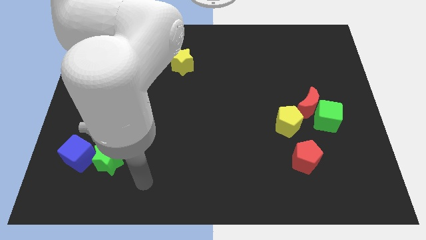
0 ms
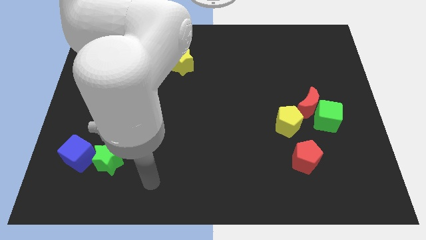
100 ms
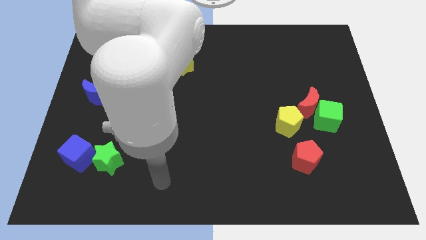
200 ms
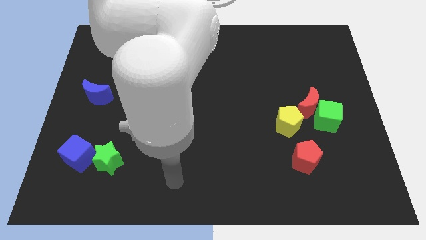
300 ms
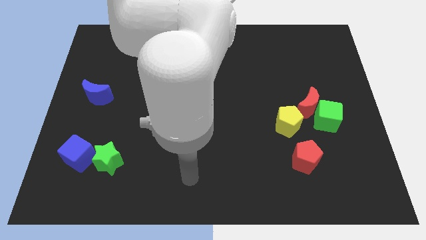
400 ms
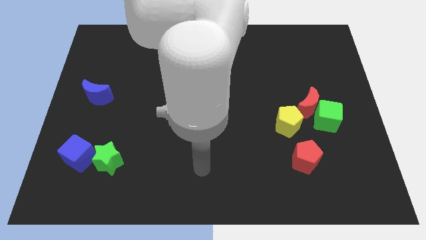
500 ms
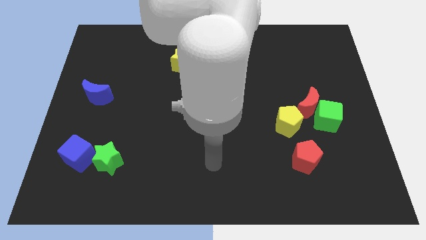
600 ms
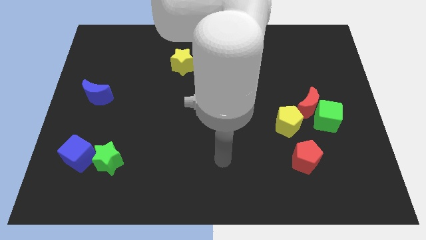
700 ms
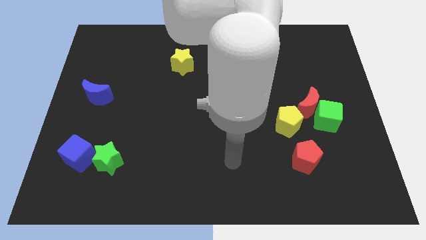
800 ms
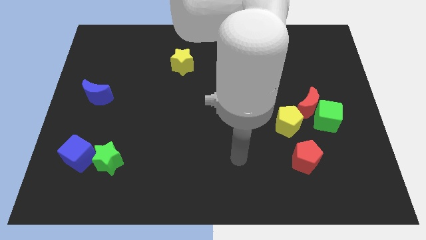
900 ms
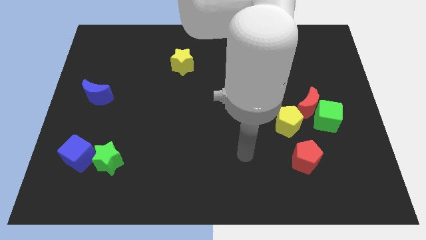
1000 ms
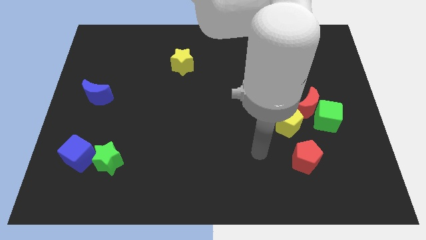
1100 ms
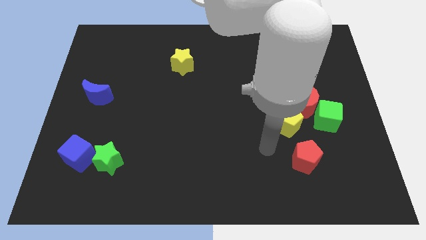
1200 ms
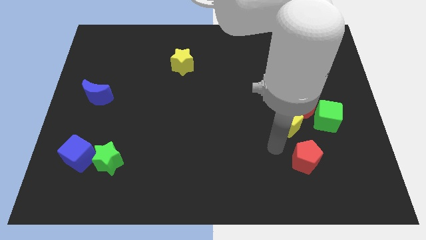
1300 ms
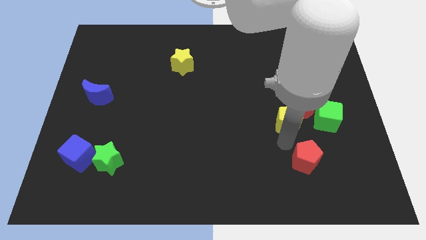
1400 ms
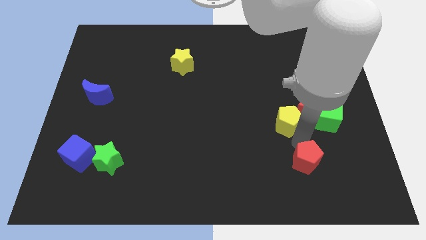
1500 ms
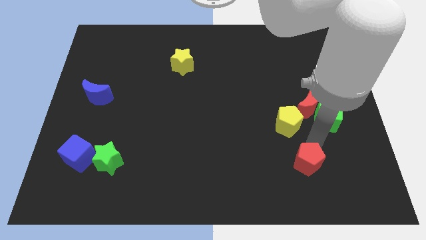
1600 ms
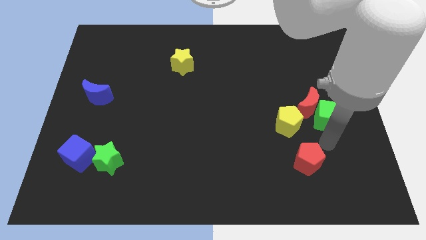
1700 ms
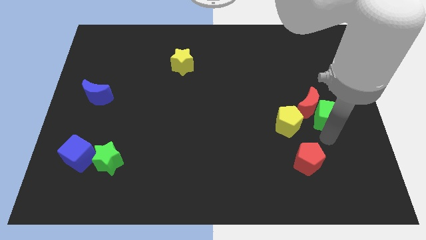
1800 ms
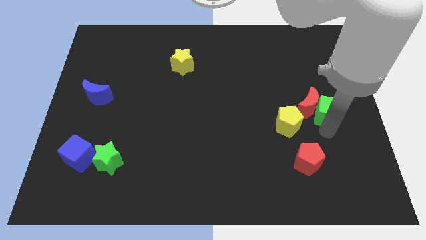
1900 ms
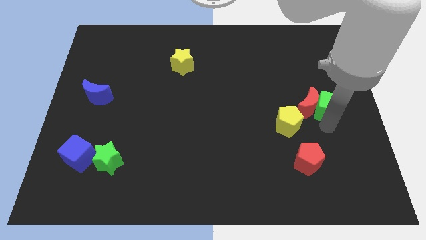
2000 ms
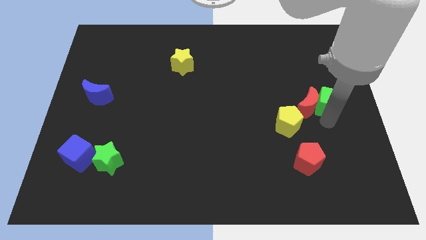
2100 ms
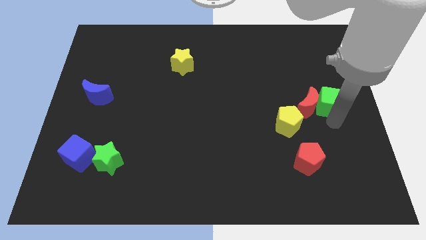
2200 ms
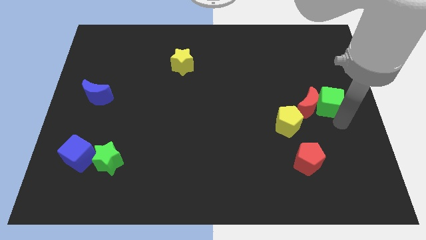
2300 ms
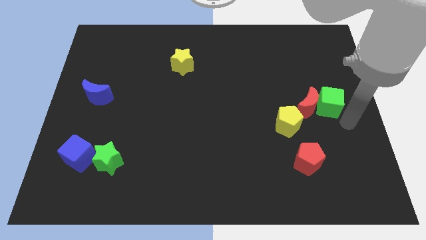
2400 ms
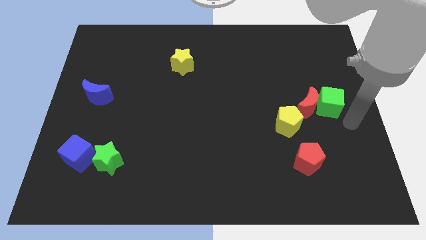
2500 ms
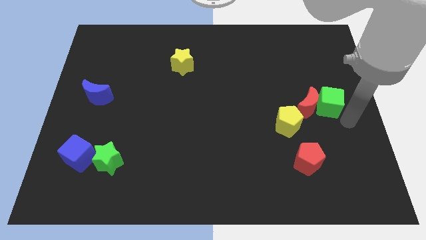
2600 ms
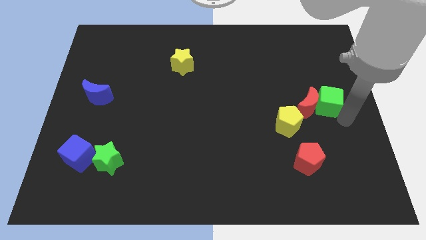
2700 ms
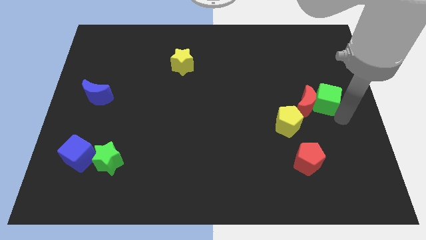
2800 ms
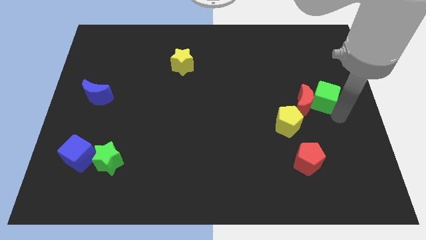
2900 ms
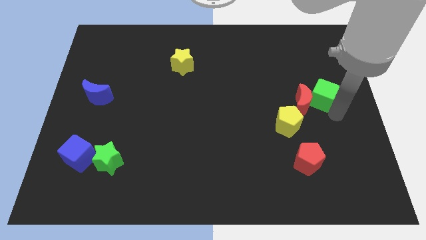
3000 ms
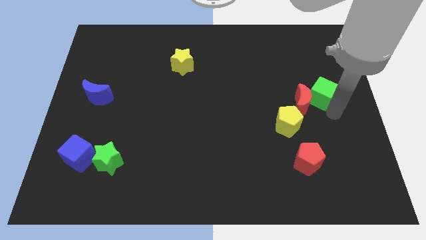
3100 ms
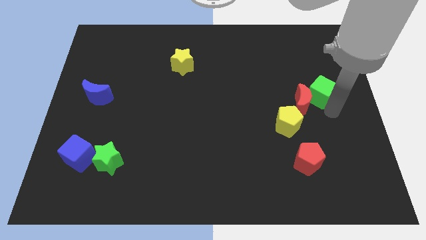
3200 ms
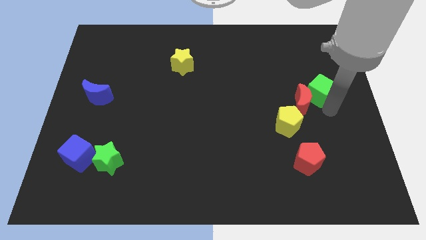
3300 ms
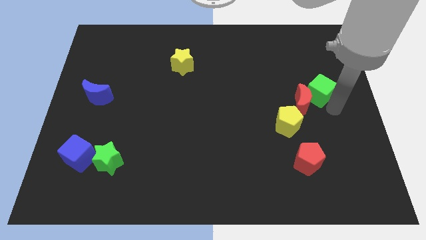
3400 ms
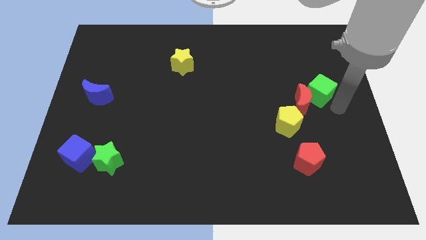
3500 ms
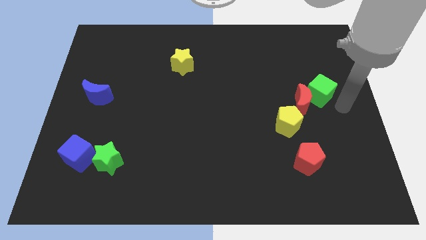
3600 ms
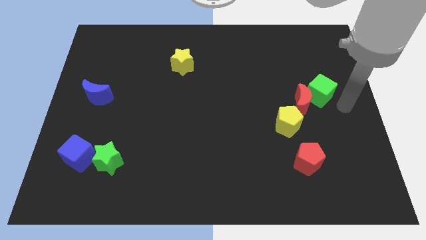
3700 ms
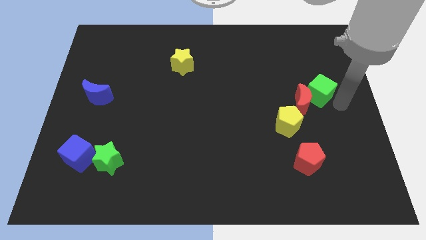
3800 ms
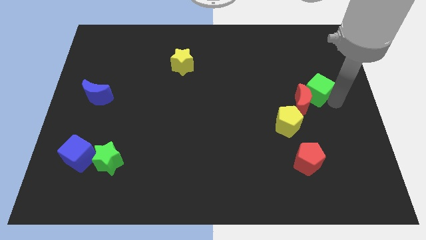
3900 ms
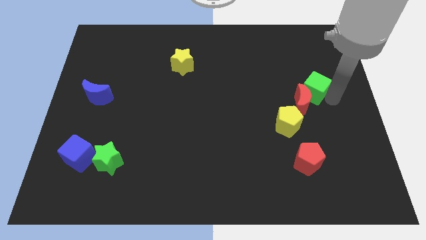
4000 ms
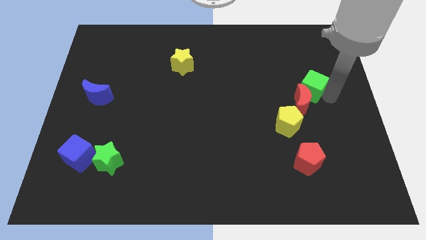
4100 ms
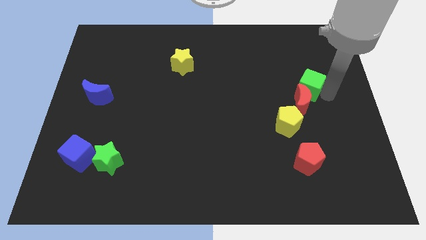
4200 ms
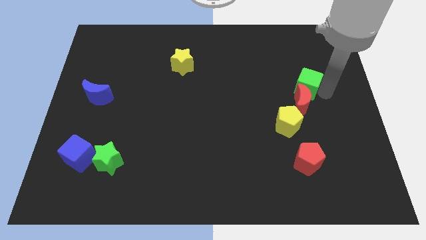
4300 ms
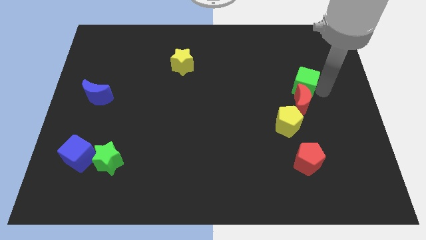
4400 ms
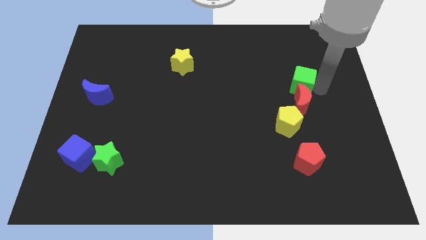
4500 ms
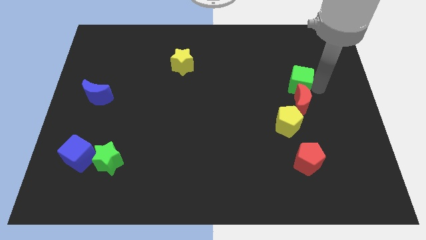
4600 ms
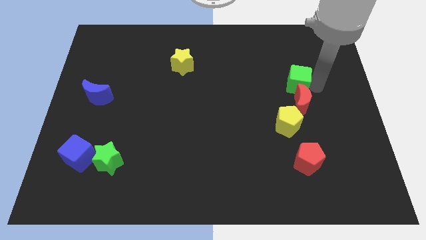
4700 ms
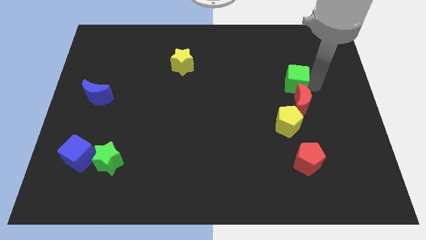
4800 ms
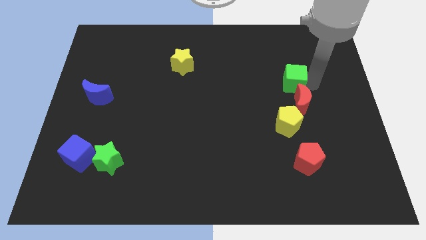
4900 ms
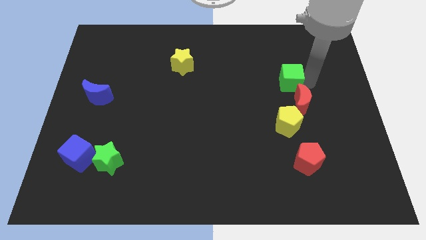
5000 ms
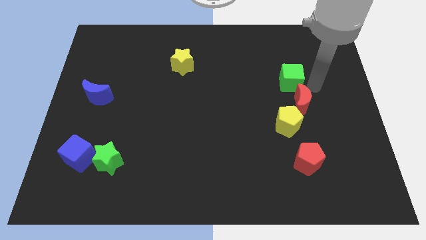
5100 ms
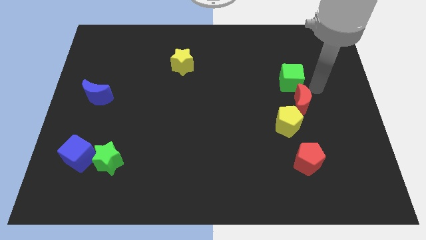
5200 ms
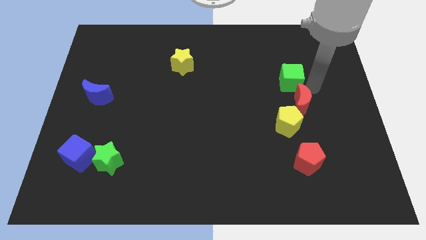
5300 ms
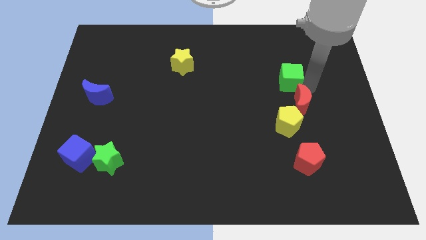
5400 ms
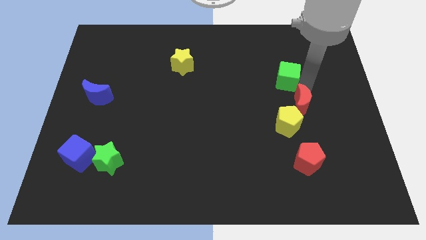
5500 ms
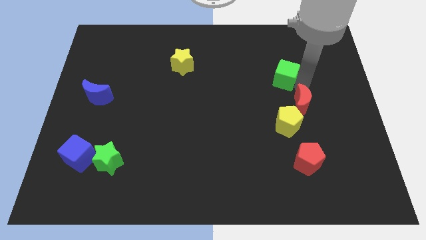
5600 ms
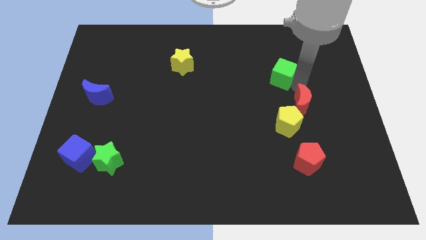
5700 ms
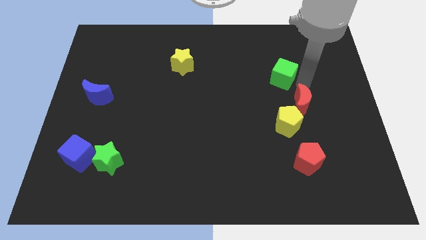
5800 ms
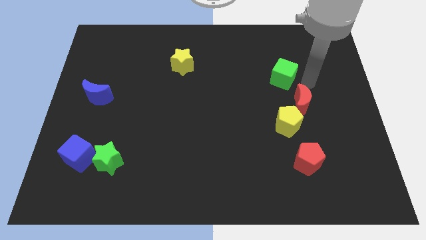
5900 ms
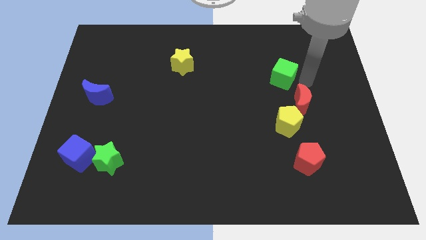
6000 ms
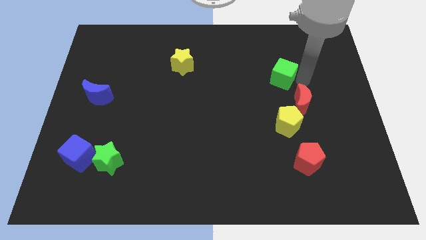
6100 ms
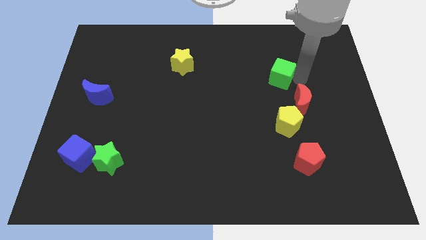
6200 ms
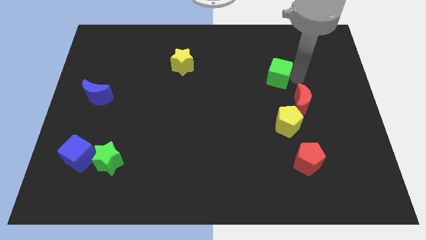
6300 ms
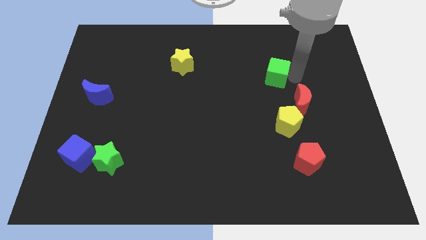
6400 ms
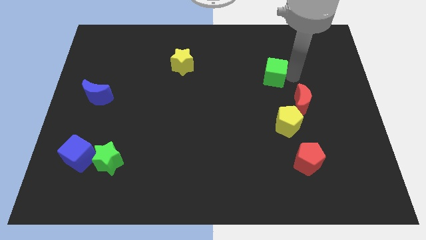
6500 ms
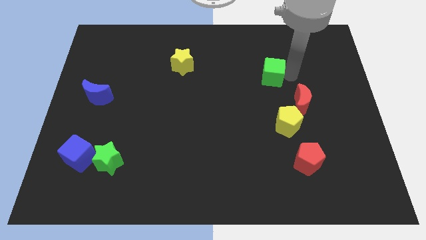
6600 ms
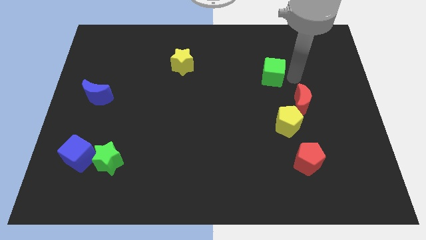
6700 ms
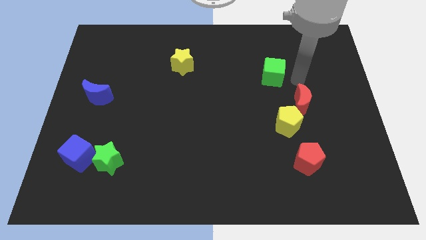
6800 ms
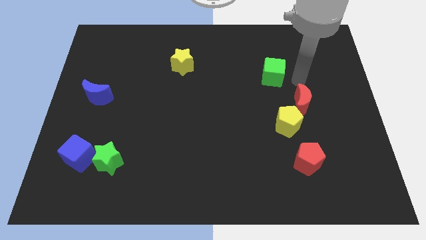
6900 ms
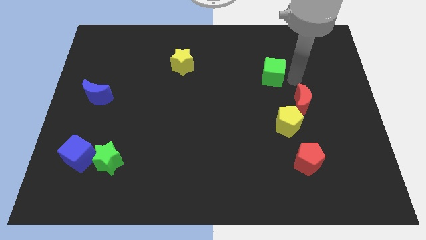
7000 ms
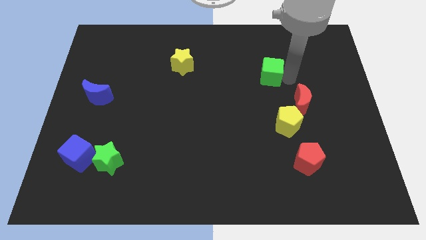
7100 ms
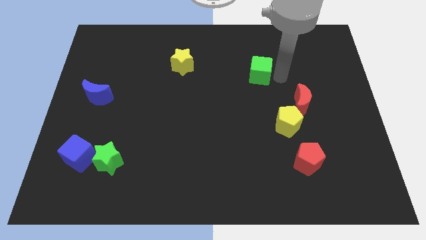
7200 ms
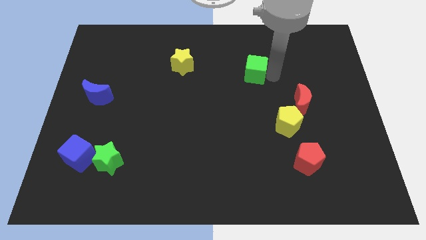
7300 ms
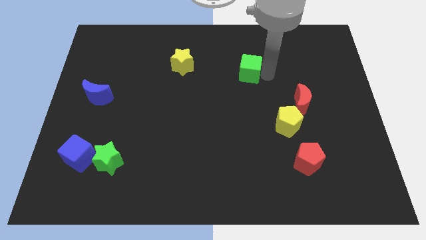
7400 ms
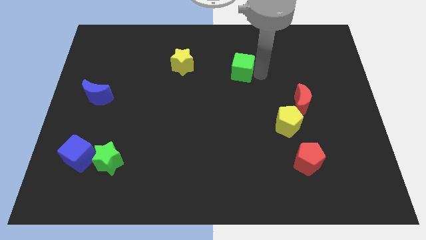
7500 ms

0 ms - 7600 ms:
move the green cube just right of the yellow star

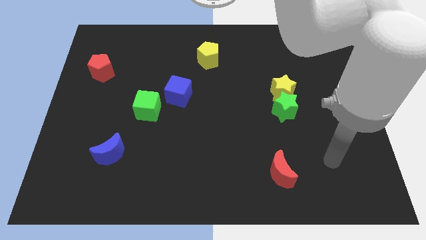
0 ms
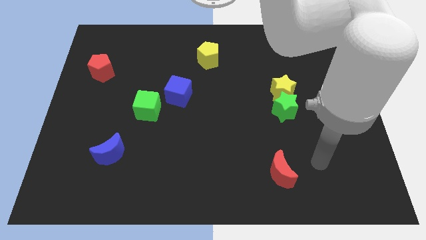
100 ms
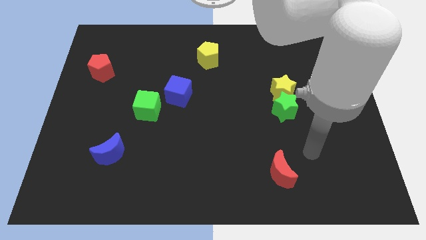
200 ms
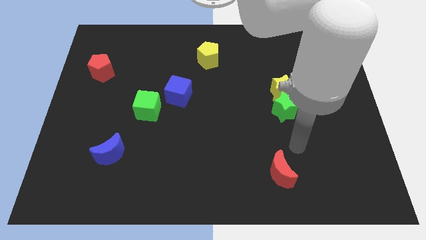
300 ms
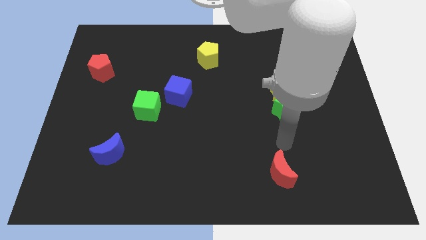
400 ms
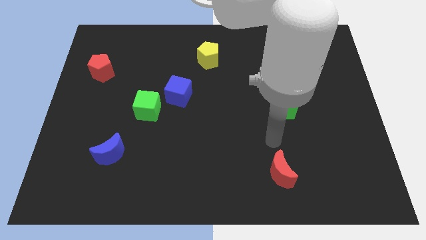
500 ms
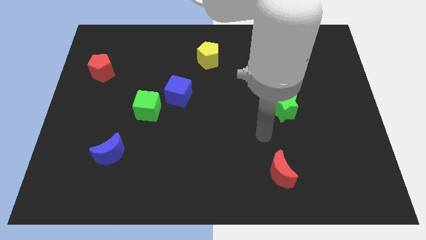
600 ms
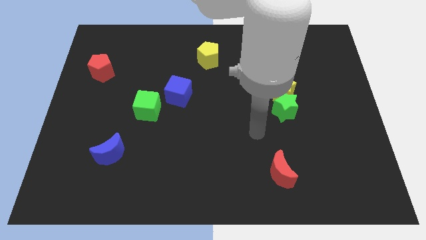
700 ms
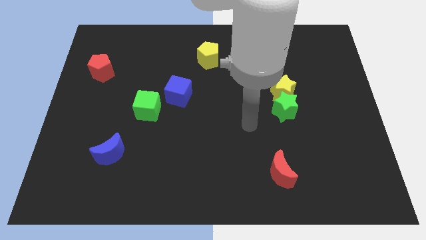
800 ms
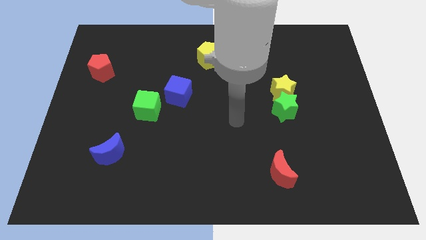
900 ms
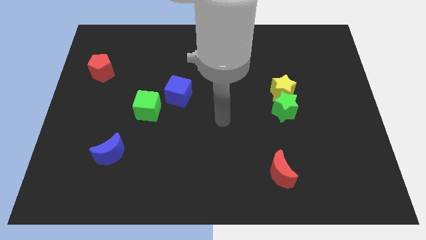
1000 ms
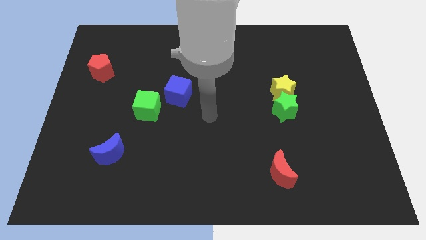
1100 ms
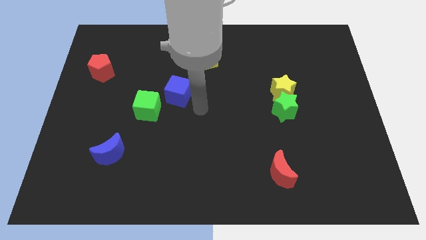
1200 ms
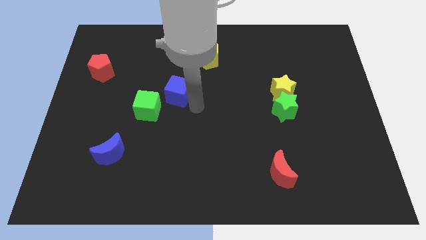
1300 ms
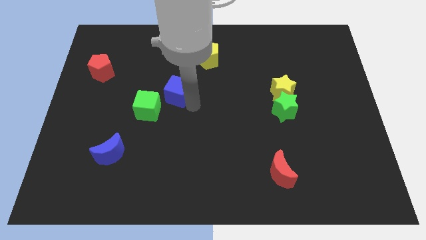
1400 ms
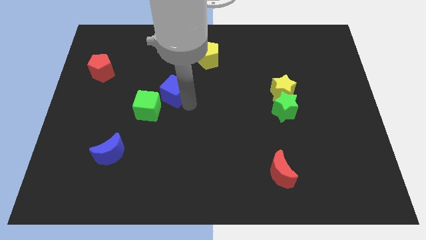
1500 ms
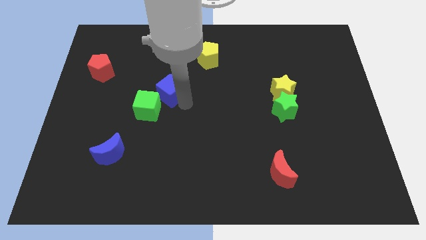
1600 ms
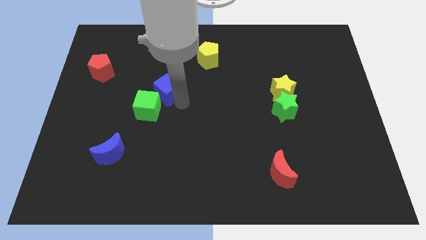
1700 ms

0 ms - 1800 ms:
put the blue cube to the top side of the green cube
